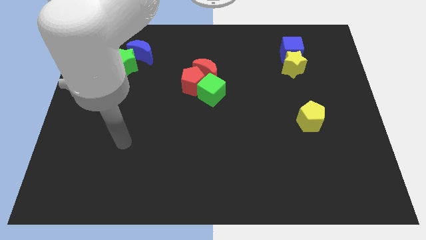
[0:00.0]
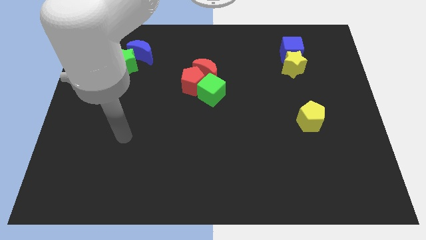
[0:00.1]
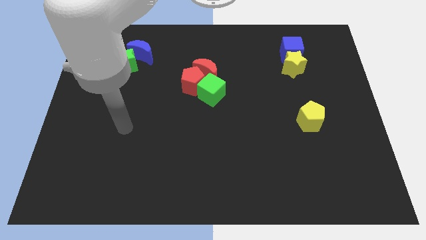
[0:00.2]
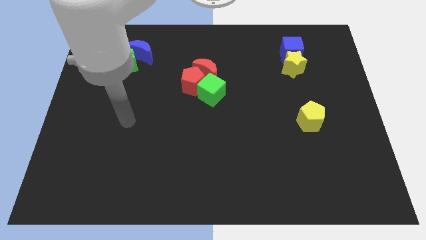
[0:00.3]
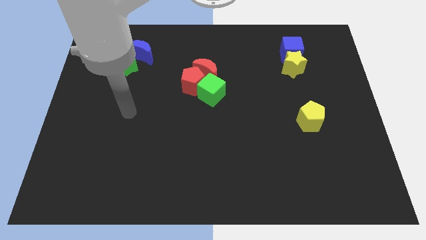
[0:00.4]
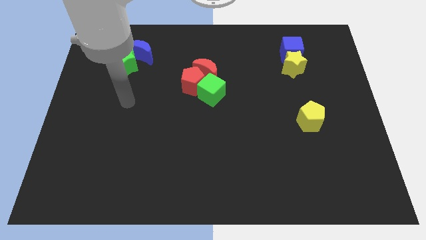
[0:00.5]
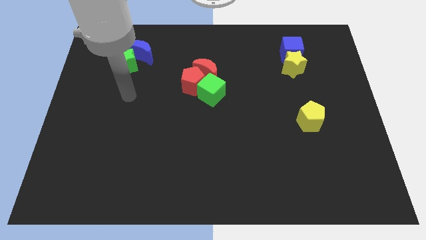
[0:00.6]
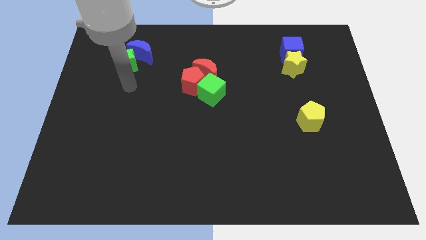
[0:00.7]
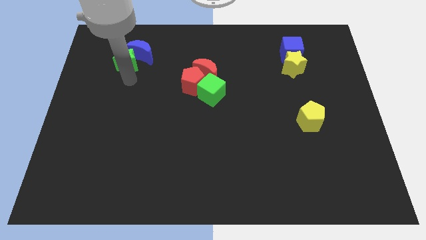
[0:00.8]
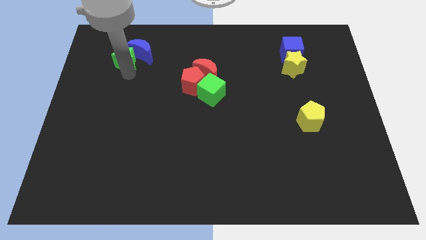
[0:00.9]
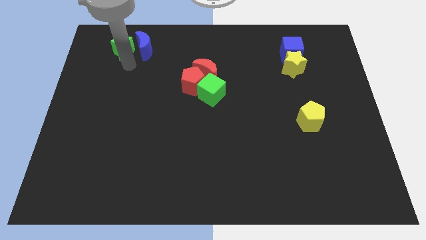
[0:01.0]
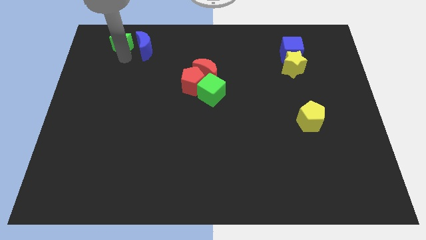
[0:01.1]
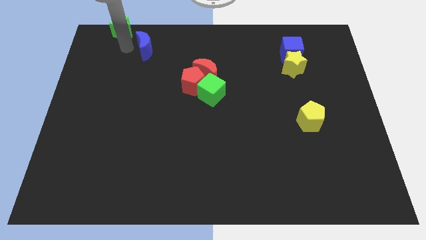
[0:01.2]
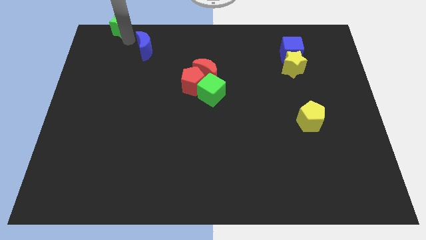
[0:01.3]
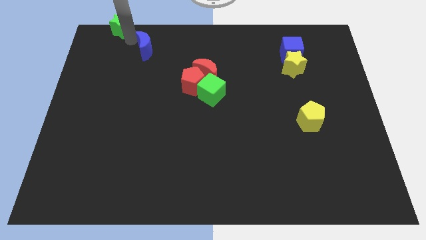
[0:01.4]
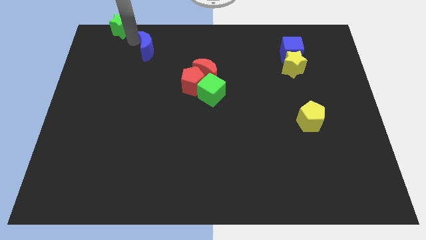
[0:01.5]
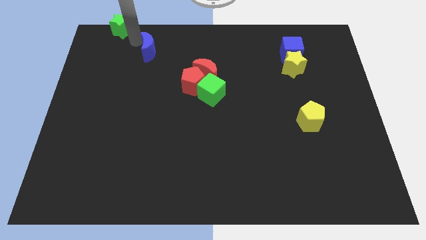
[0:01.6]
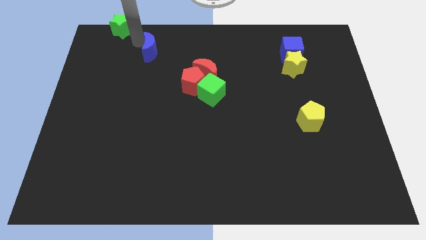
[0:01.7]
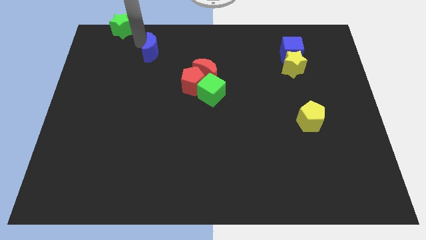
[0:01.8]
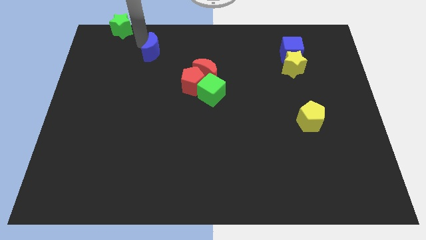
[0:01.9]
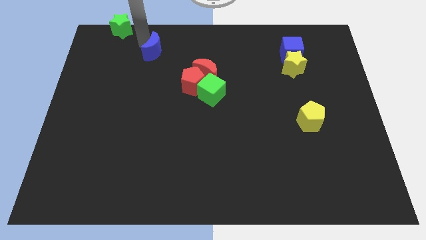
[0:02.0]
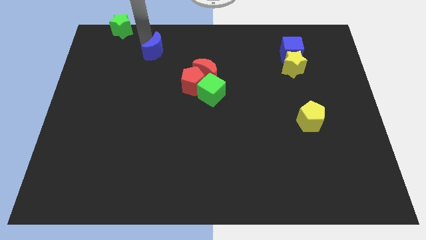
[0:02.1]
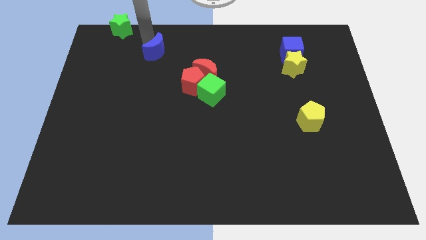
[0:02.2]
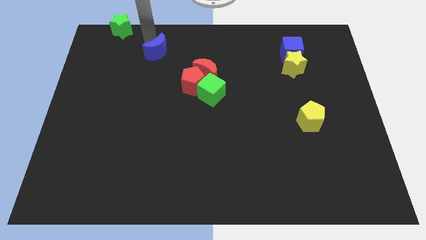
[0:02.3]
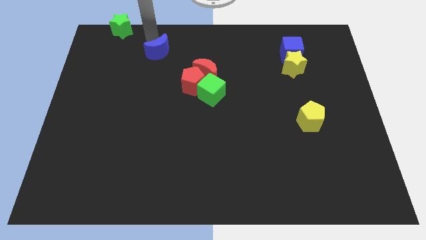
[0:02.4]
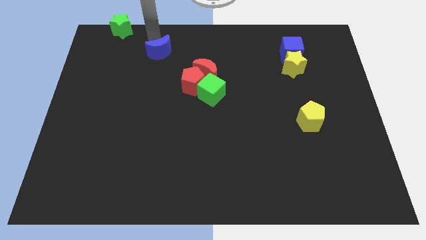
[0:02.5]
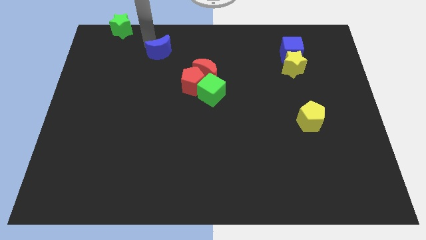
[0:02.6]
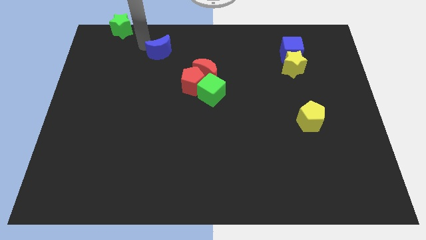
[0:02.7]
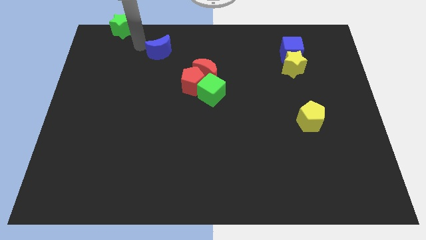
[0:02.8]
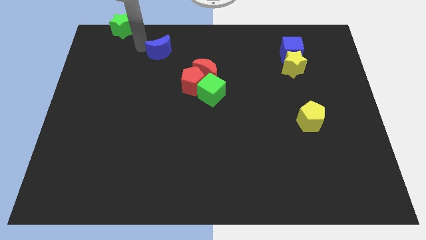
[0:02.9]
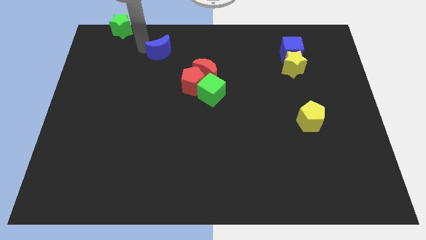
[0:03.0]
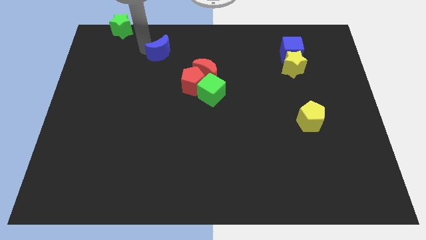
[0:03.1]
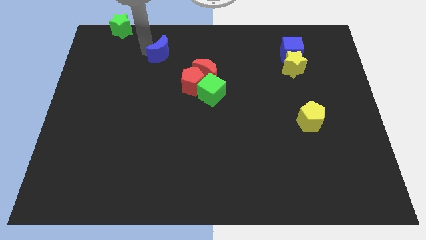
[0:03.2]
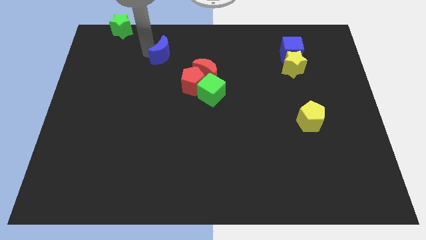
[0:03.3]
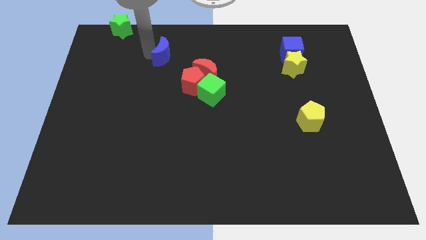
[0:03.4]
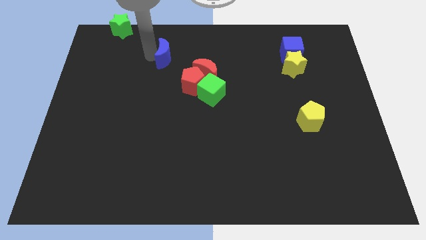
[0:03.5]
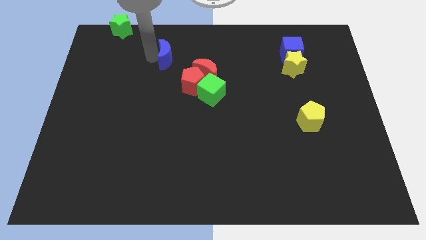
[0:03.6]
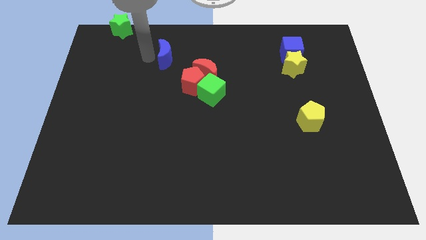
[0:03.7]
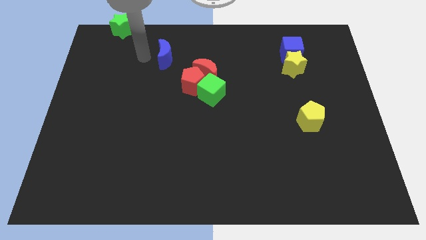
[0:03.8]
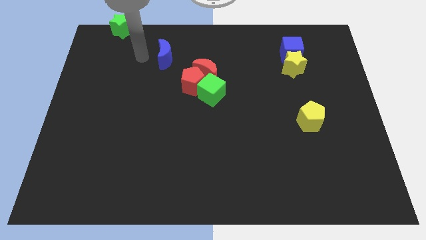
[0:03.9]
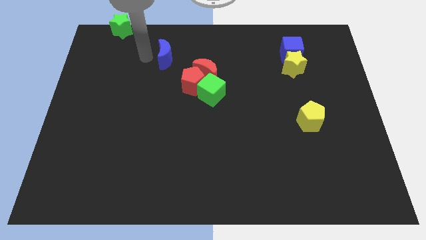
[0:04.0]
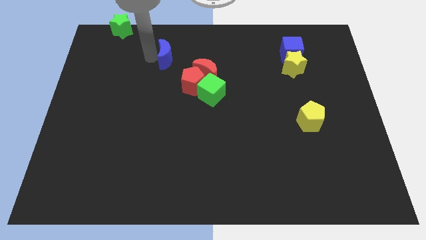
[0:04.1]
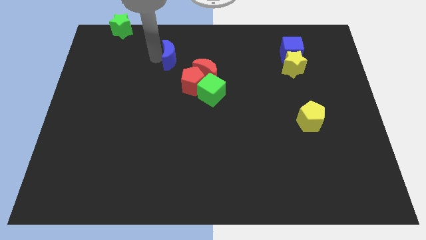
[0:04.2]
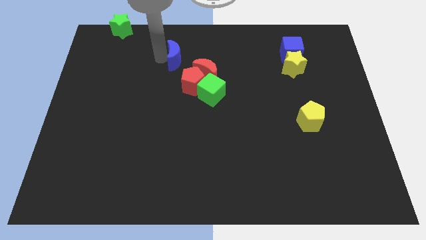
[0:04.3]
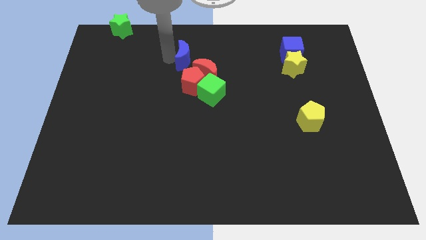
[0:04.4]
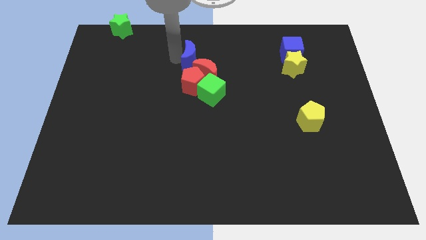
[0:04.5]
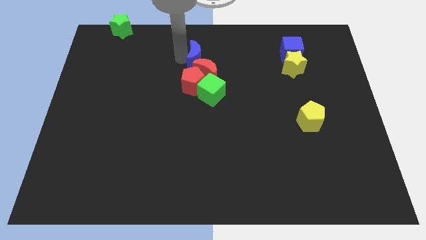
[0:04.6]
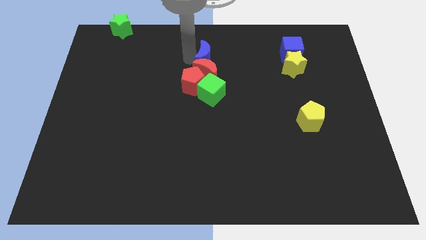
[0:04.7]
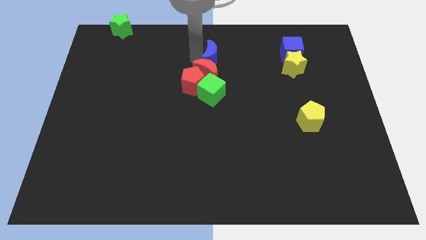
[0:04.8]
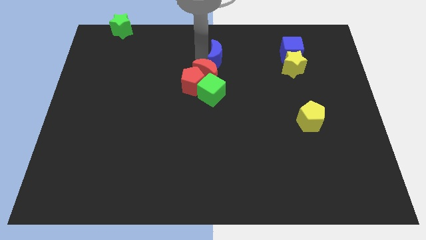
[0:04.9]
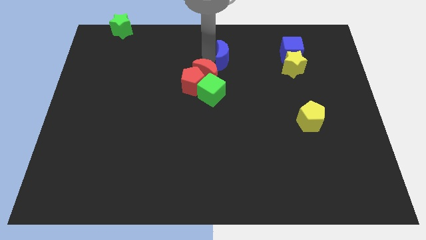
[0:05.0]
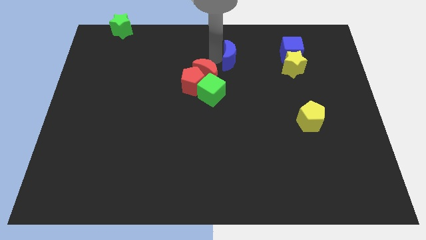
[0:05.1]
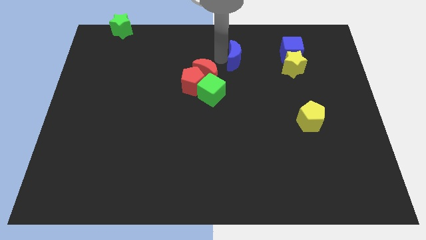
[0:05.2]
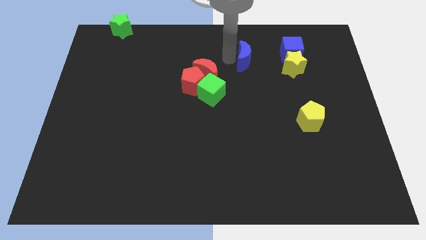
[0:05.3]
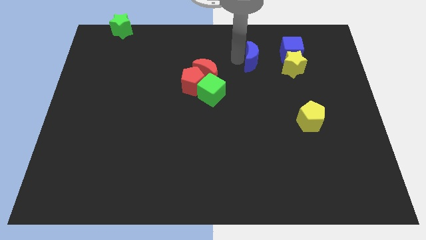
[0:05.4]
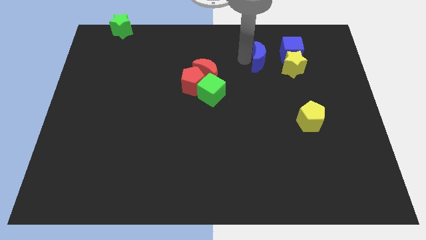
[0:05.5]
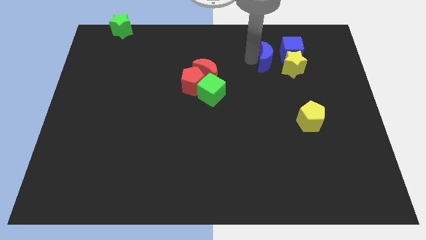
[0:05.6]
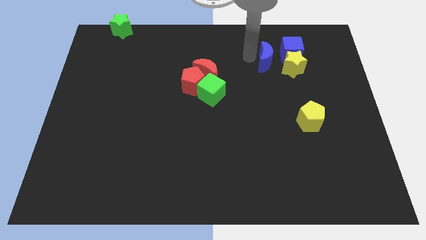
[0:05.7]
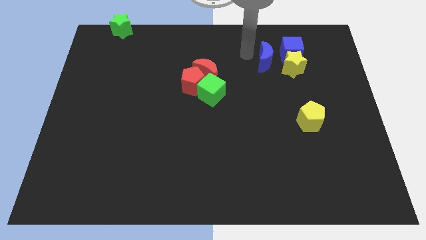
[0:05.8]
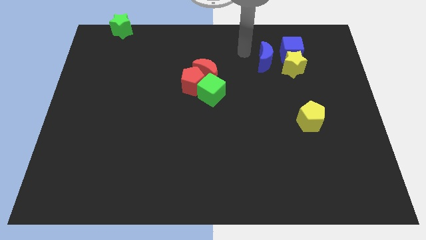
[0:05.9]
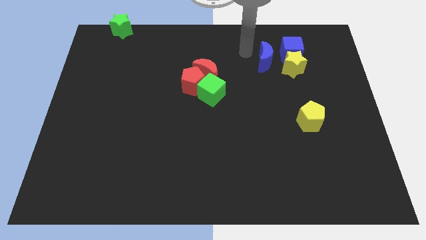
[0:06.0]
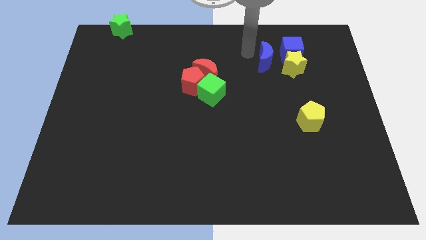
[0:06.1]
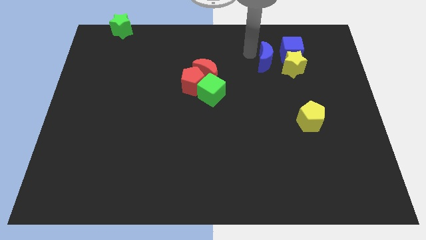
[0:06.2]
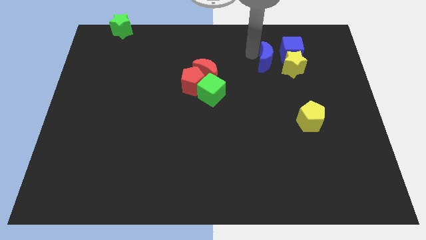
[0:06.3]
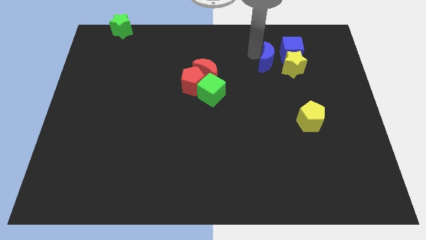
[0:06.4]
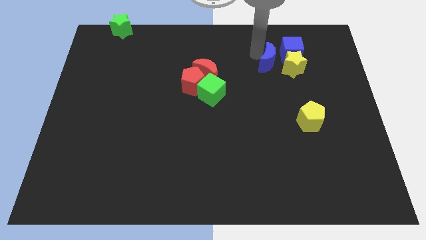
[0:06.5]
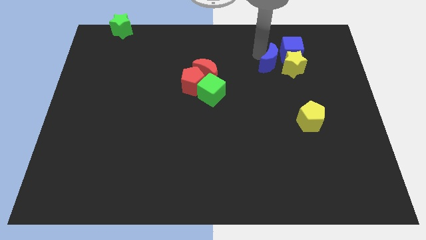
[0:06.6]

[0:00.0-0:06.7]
push the blue moon towards the yellow star
